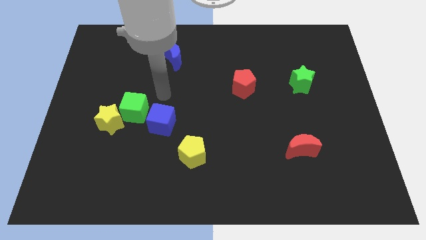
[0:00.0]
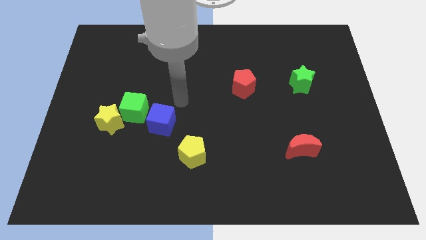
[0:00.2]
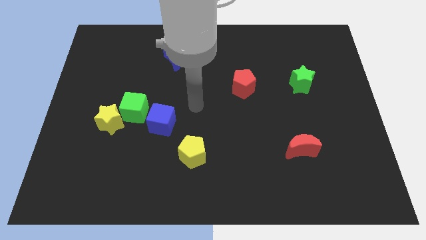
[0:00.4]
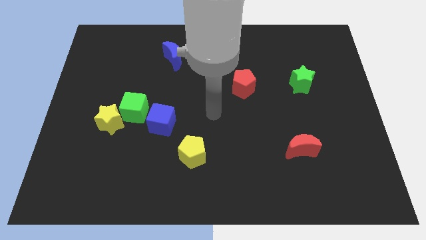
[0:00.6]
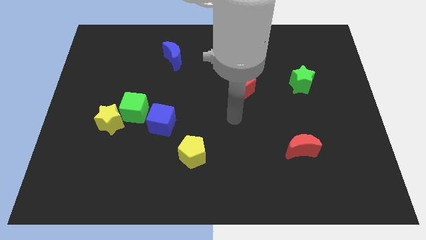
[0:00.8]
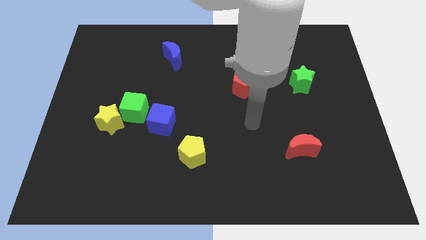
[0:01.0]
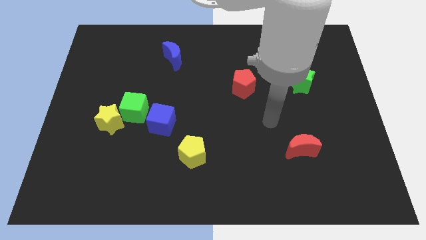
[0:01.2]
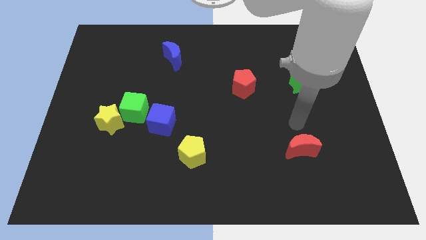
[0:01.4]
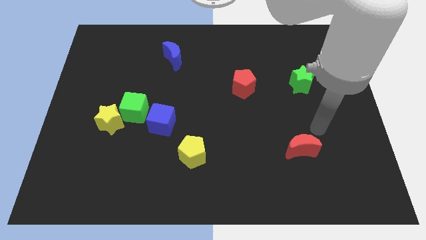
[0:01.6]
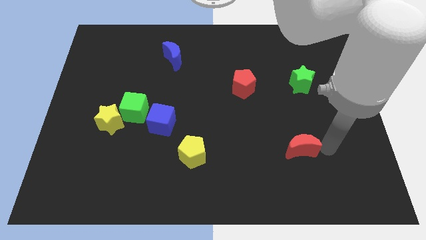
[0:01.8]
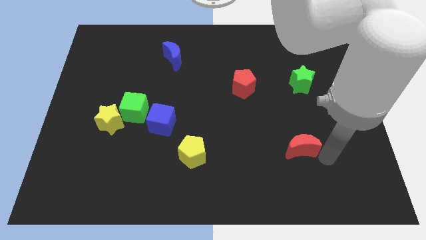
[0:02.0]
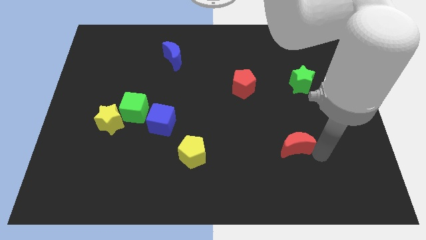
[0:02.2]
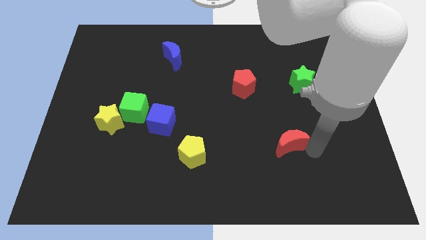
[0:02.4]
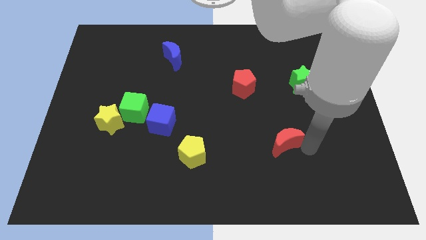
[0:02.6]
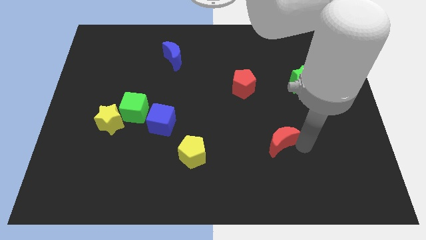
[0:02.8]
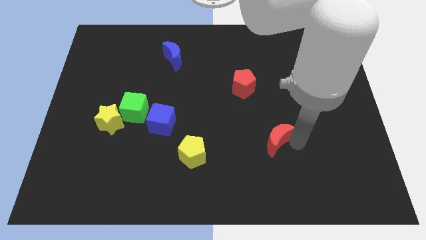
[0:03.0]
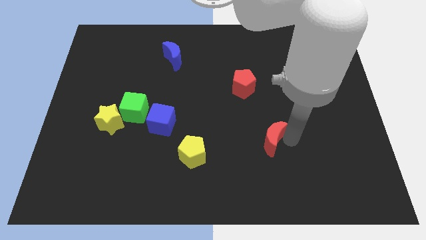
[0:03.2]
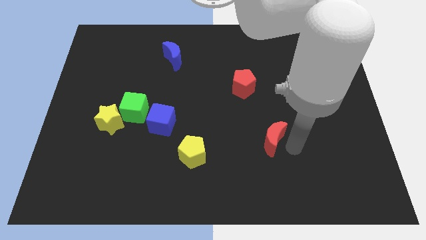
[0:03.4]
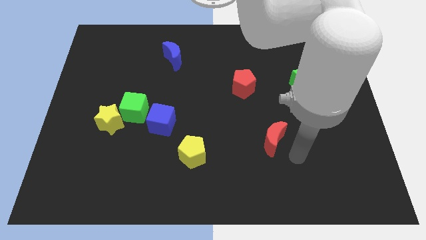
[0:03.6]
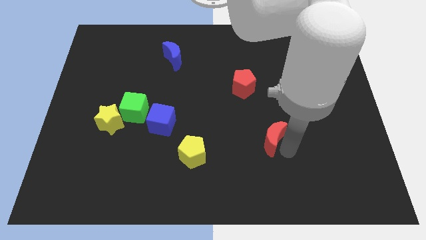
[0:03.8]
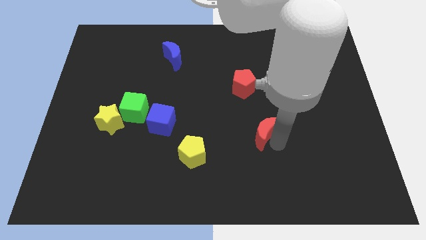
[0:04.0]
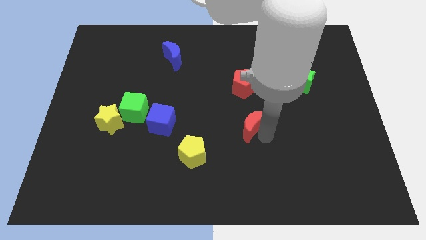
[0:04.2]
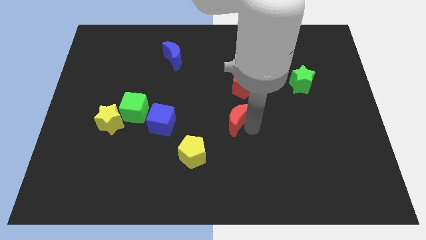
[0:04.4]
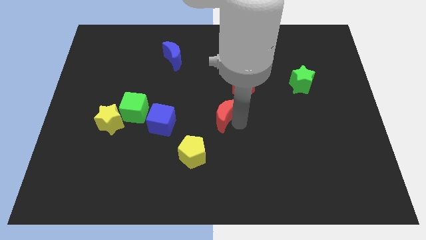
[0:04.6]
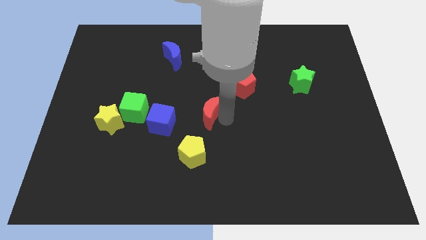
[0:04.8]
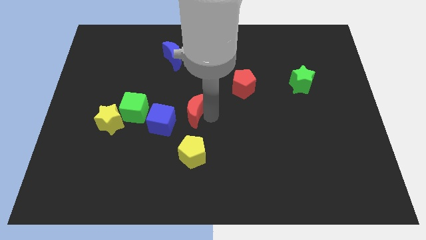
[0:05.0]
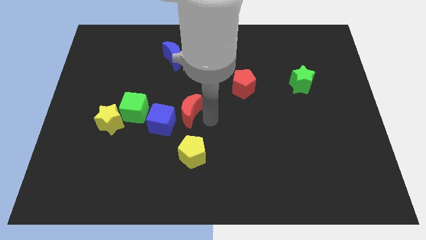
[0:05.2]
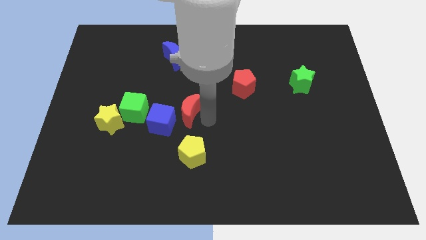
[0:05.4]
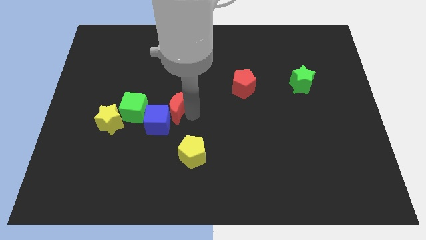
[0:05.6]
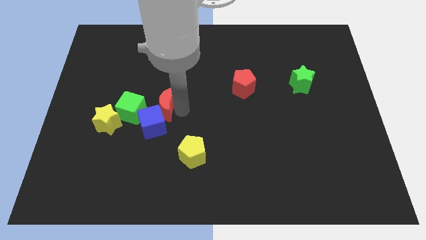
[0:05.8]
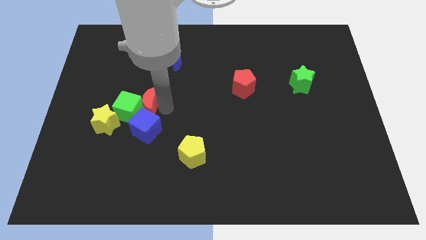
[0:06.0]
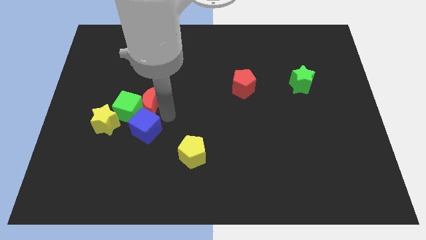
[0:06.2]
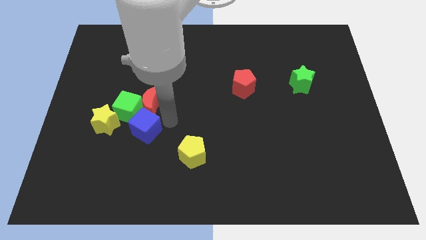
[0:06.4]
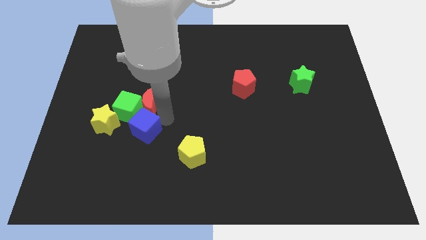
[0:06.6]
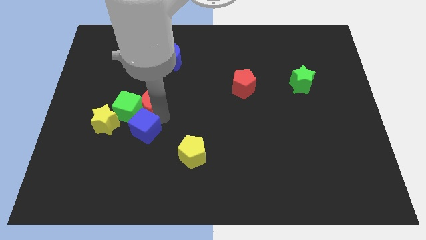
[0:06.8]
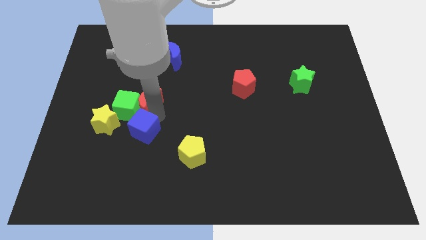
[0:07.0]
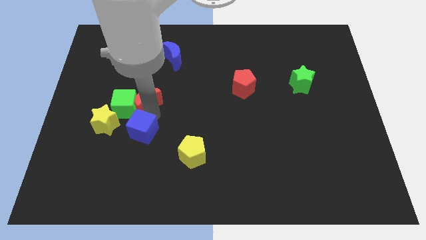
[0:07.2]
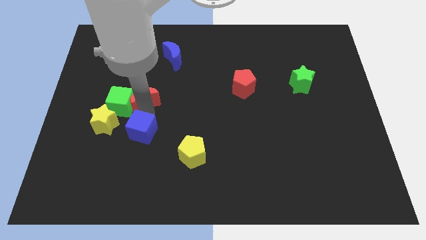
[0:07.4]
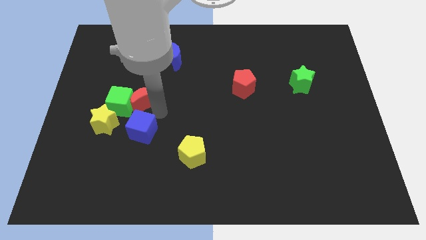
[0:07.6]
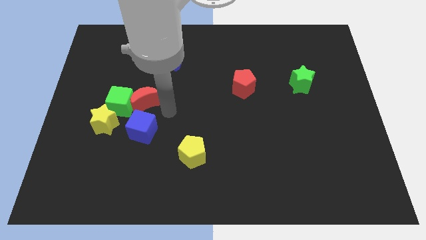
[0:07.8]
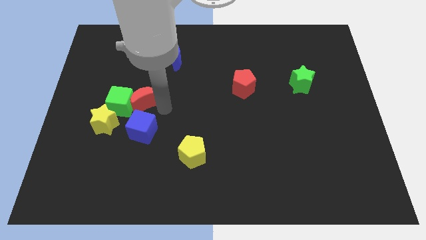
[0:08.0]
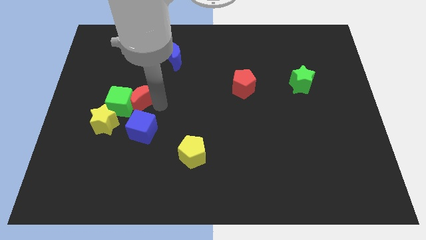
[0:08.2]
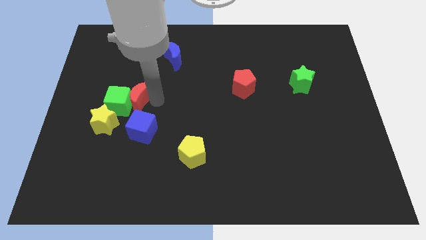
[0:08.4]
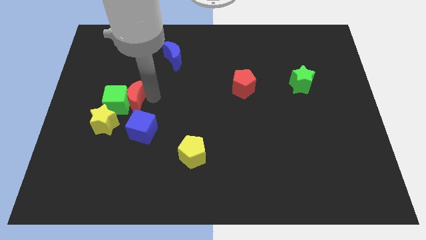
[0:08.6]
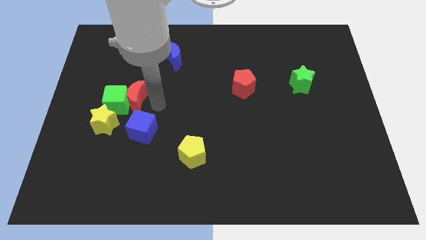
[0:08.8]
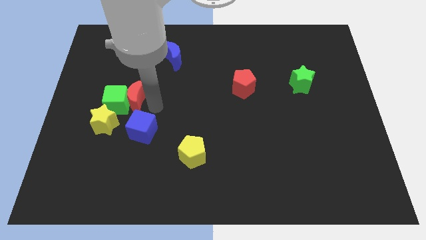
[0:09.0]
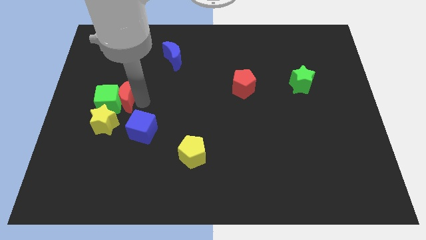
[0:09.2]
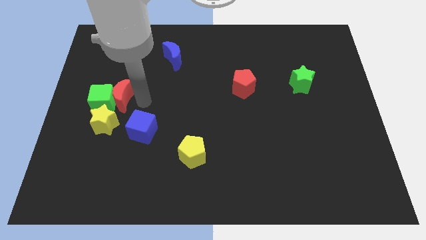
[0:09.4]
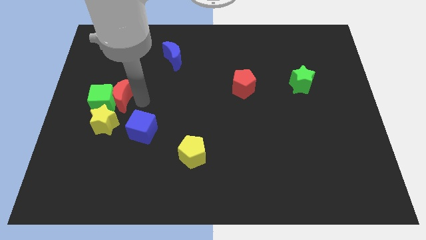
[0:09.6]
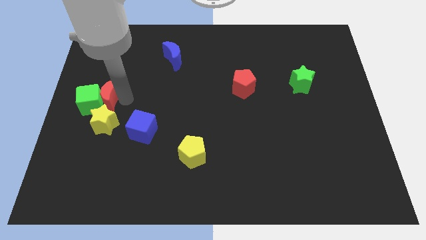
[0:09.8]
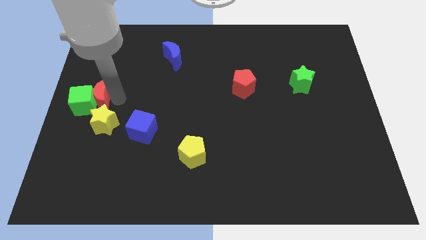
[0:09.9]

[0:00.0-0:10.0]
put the red moon to the left side

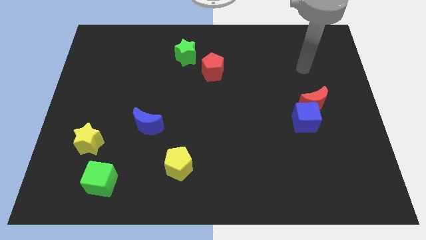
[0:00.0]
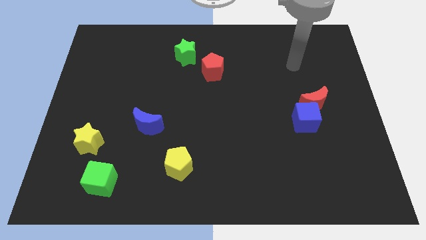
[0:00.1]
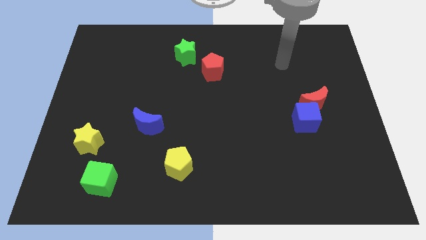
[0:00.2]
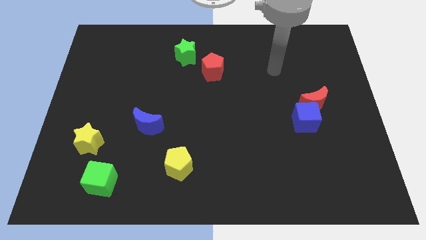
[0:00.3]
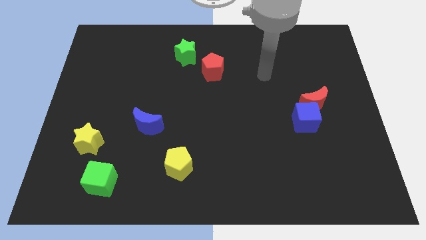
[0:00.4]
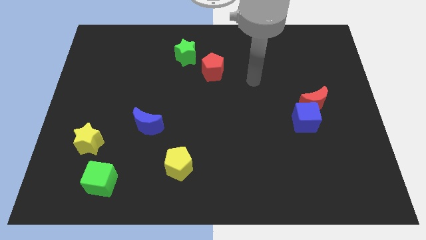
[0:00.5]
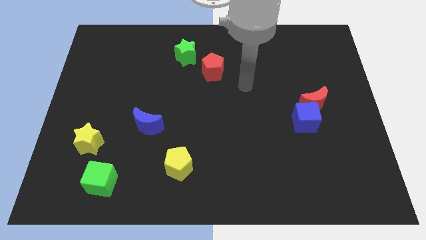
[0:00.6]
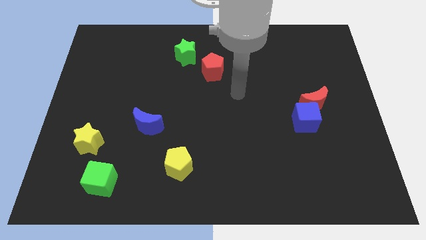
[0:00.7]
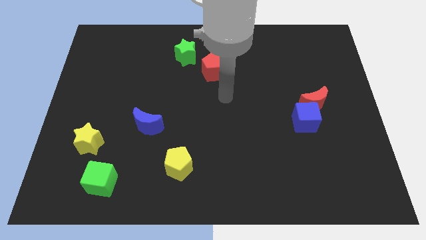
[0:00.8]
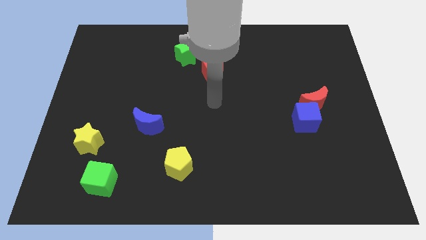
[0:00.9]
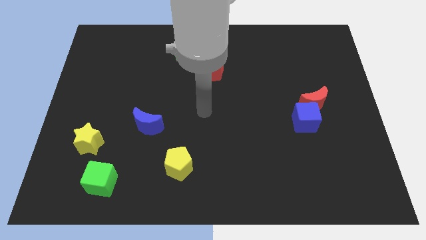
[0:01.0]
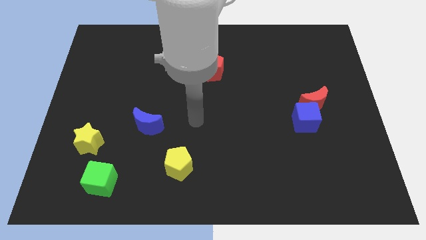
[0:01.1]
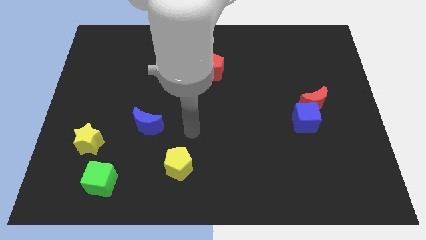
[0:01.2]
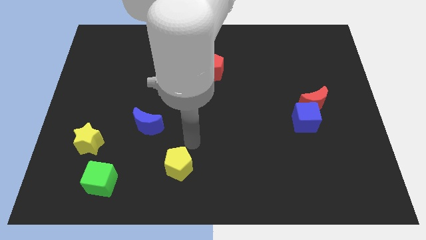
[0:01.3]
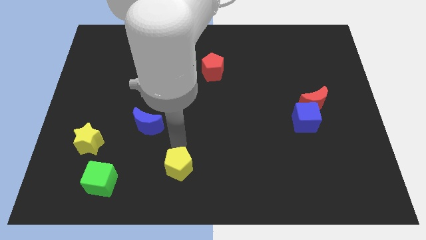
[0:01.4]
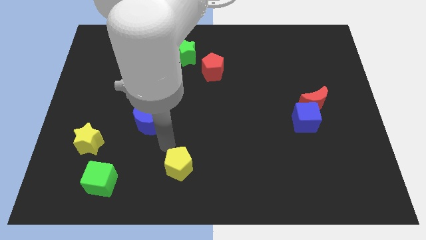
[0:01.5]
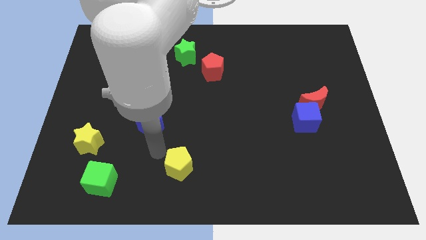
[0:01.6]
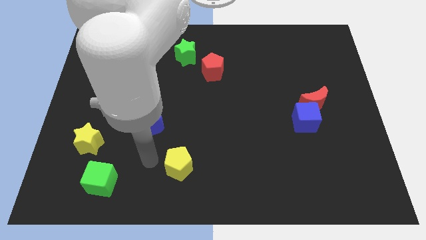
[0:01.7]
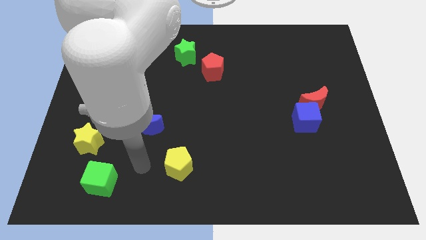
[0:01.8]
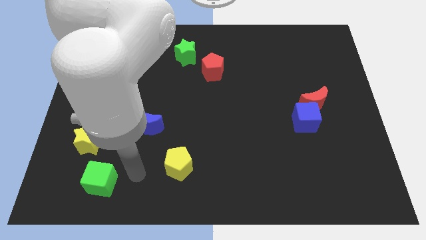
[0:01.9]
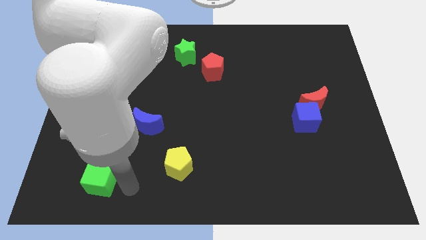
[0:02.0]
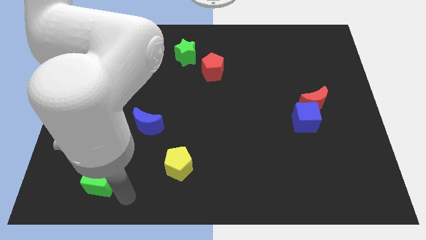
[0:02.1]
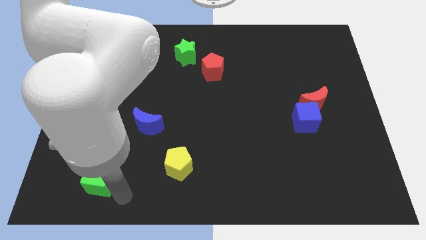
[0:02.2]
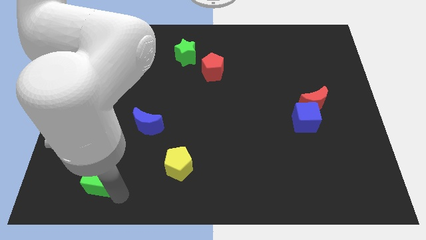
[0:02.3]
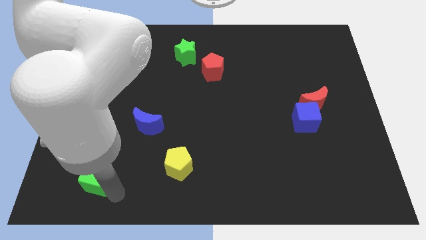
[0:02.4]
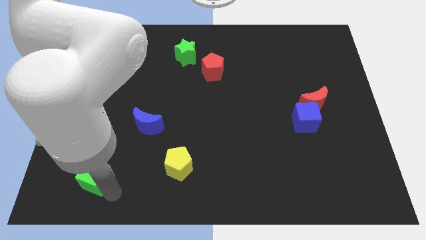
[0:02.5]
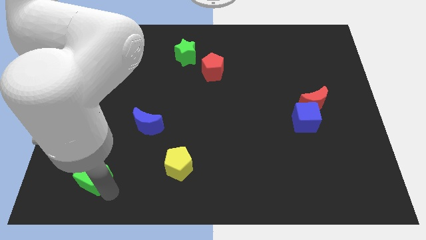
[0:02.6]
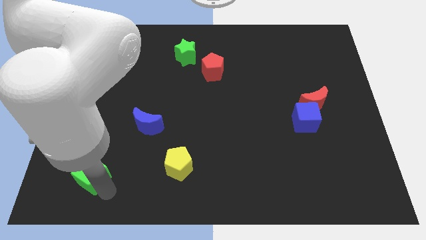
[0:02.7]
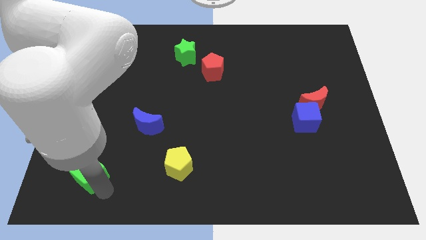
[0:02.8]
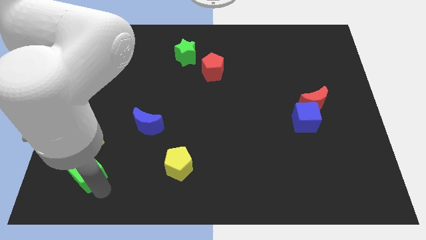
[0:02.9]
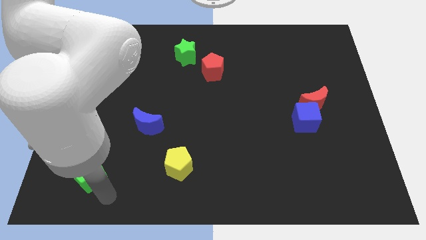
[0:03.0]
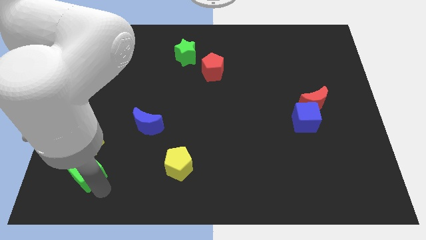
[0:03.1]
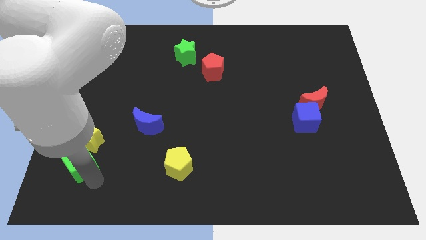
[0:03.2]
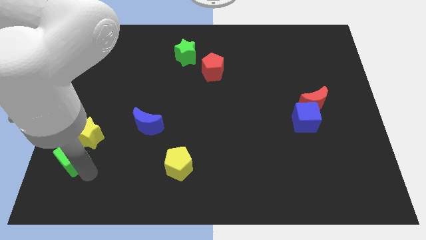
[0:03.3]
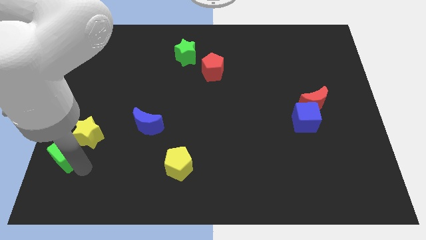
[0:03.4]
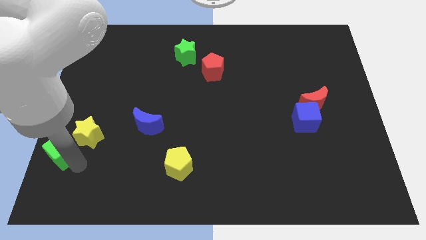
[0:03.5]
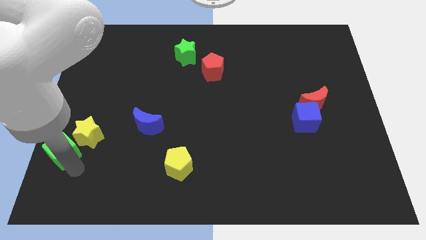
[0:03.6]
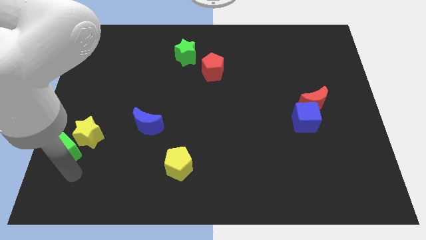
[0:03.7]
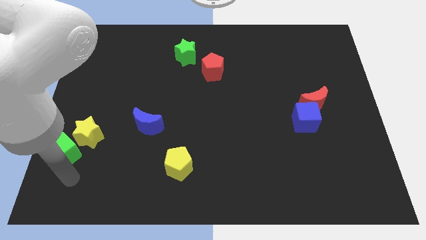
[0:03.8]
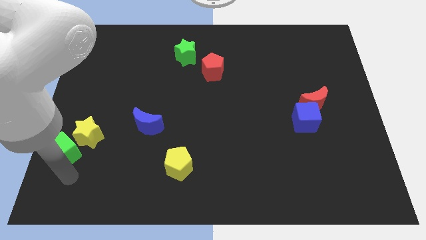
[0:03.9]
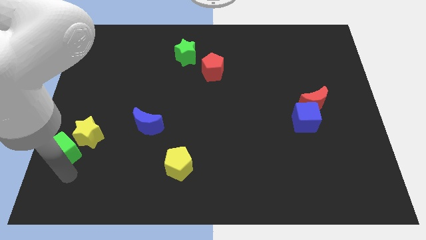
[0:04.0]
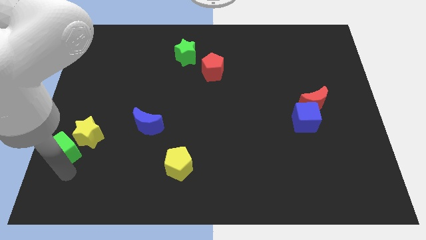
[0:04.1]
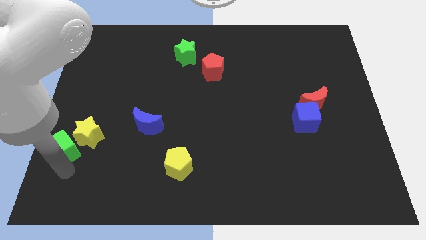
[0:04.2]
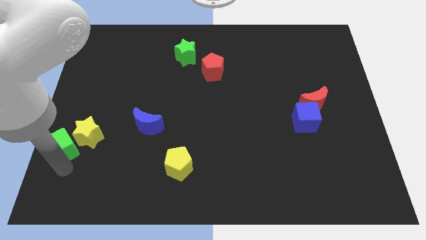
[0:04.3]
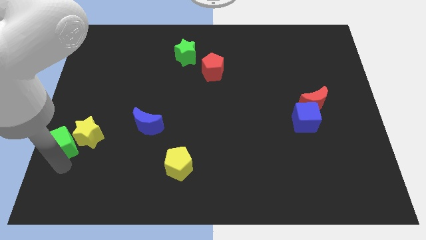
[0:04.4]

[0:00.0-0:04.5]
put the green cube to the left side
